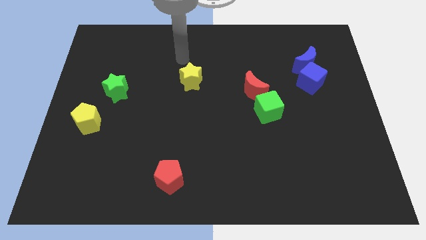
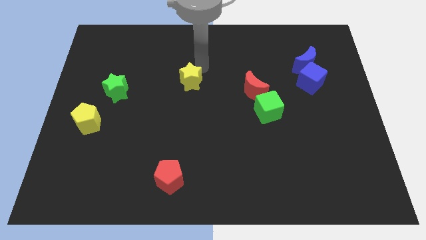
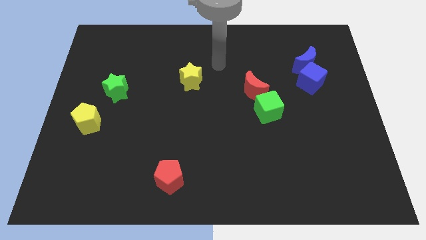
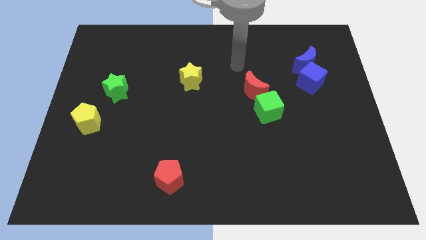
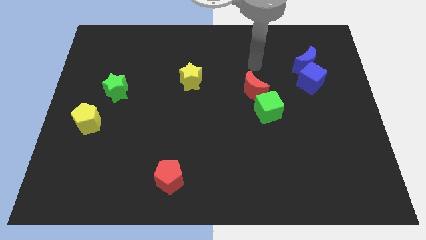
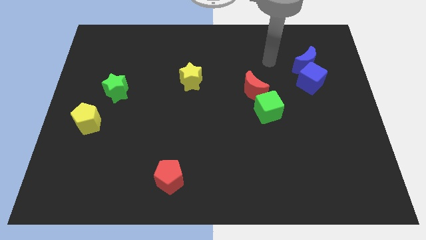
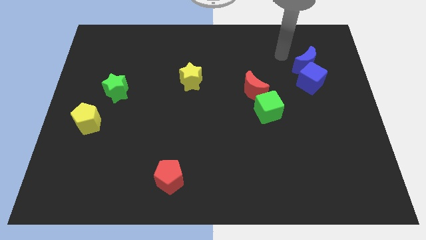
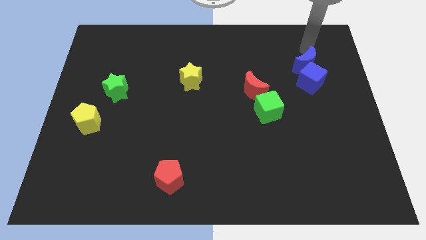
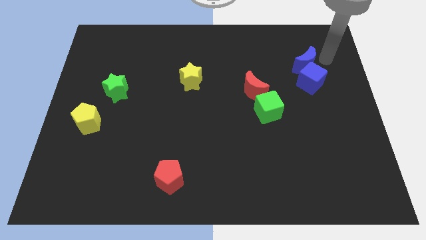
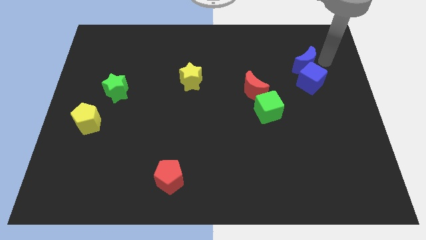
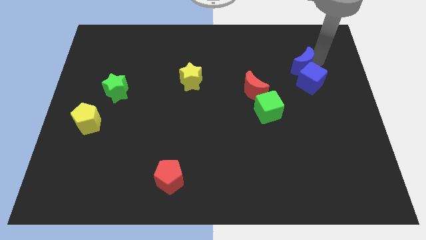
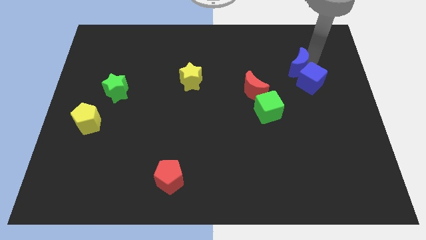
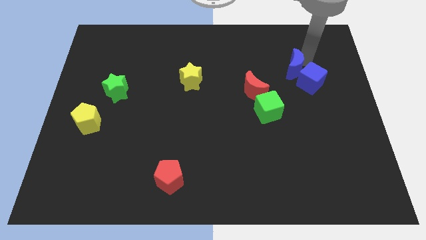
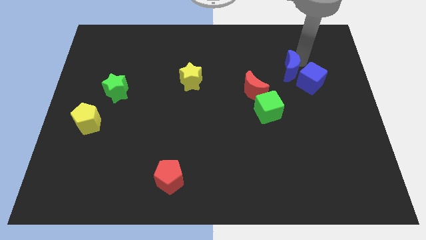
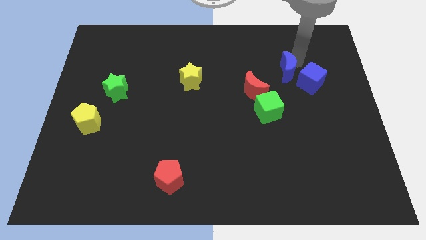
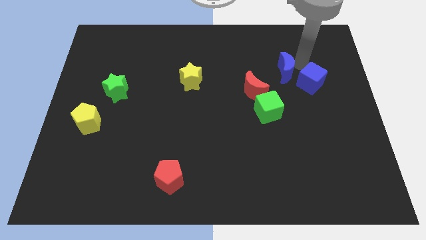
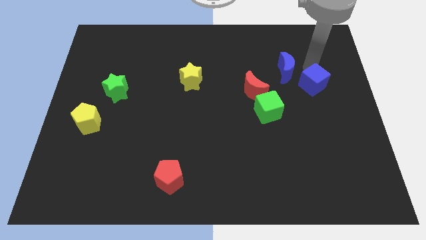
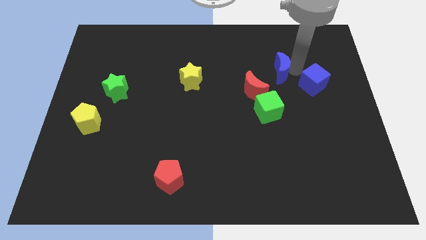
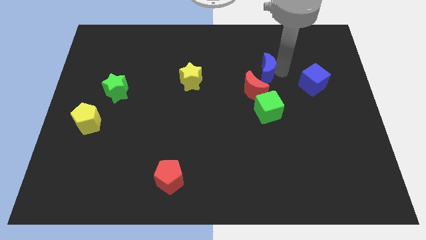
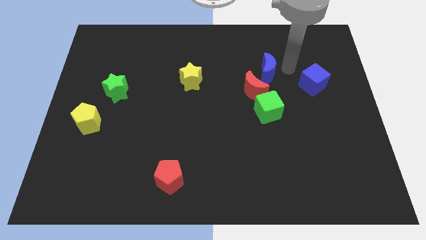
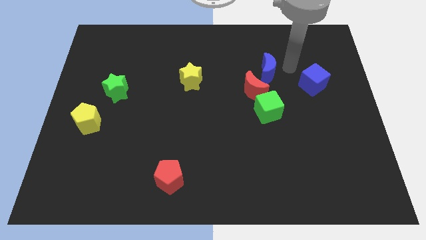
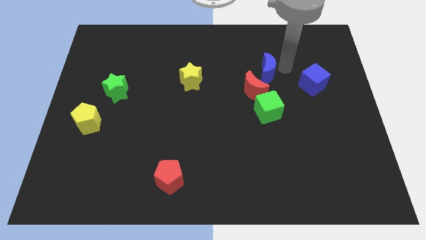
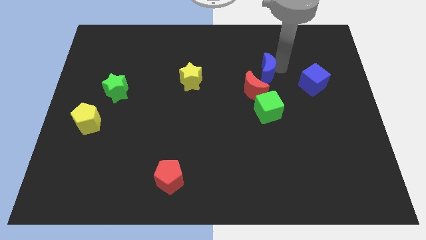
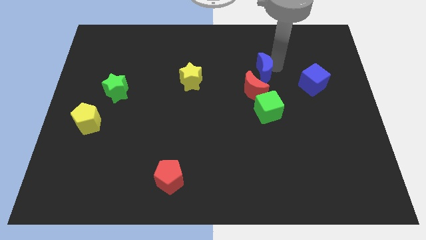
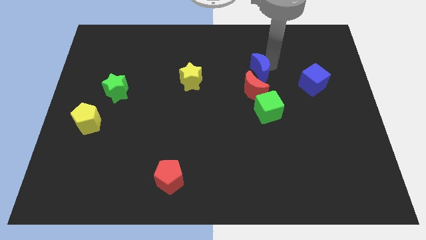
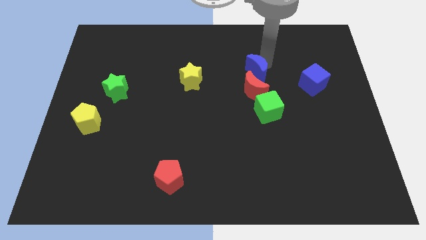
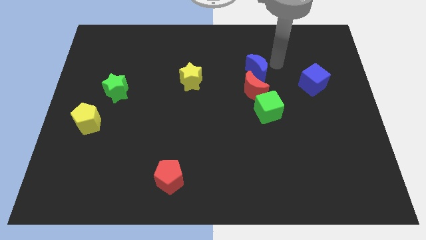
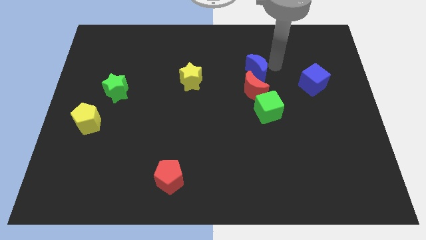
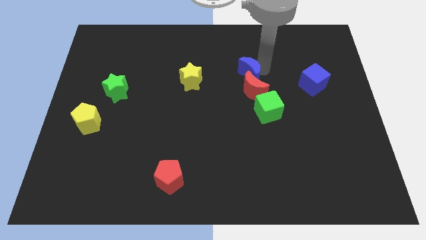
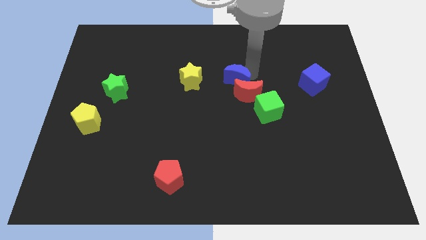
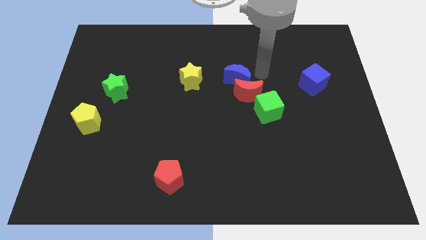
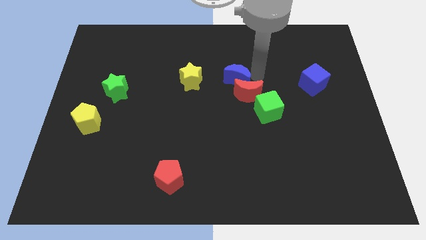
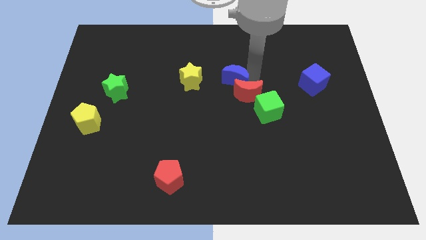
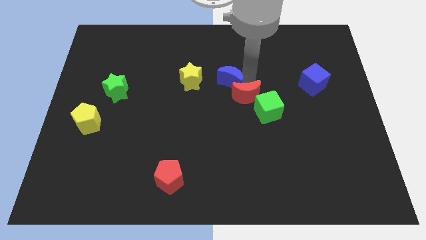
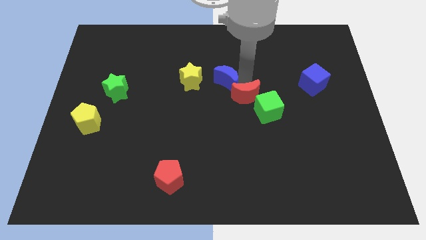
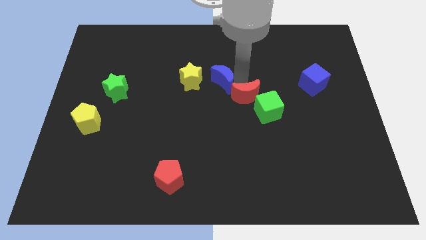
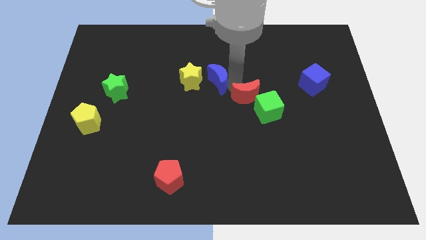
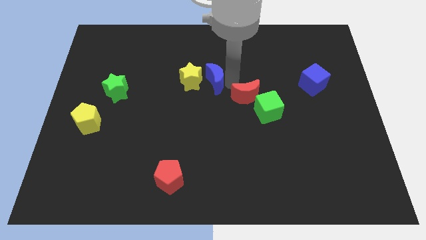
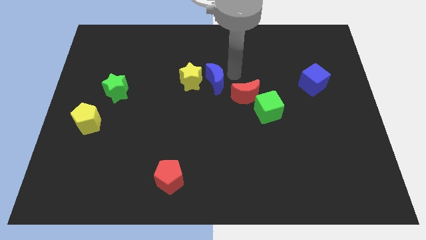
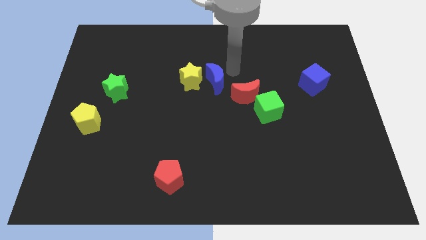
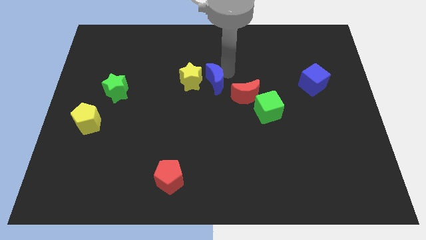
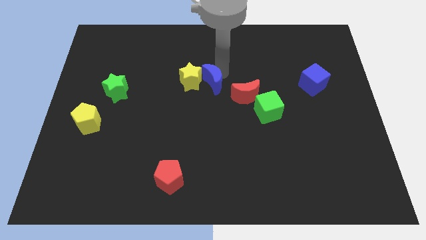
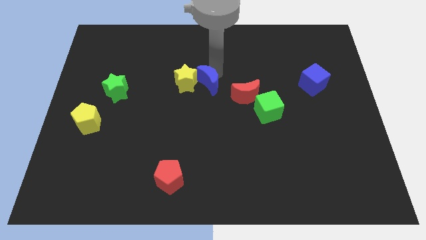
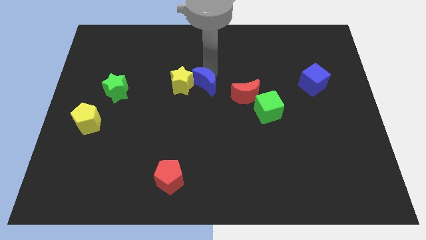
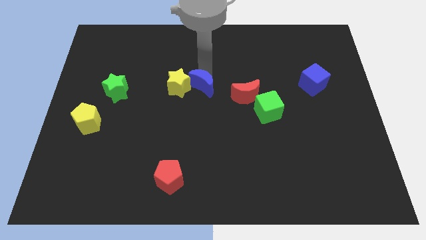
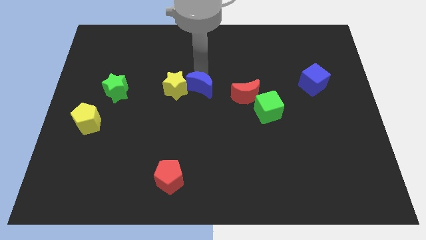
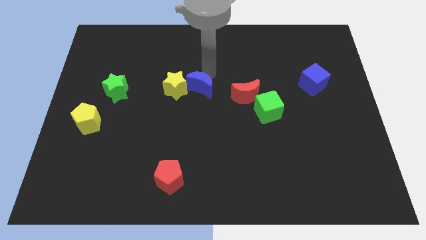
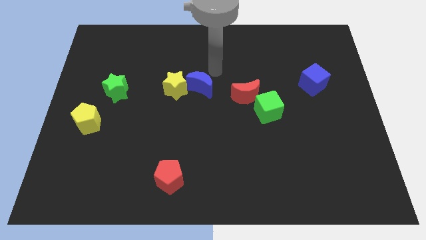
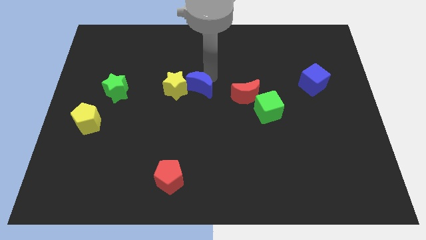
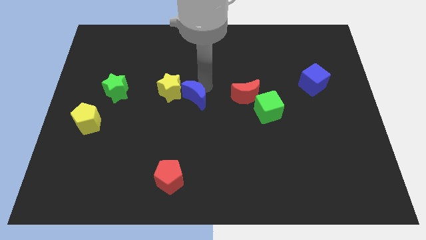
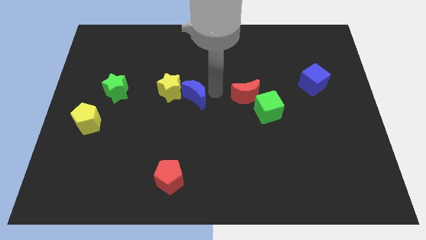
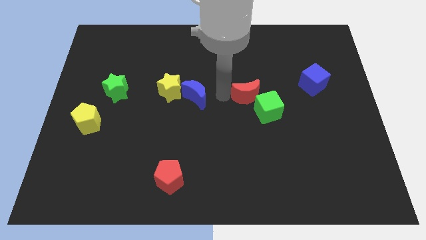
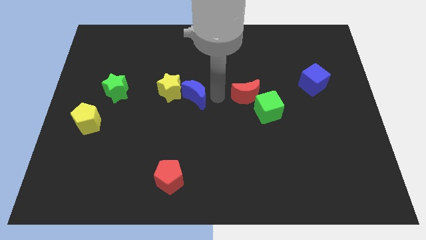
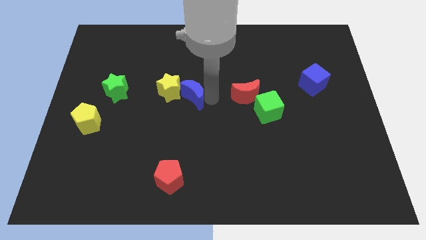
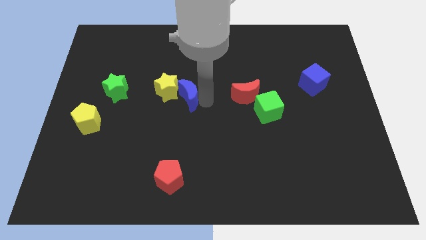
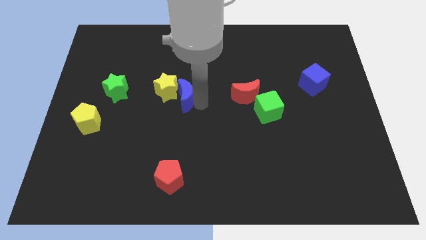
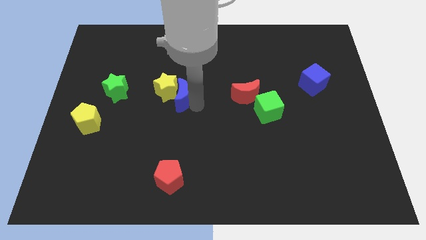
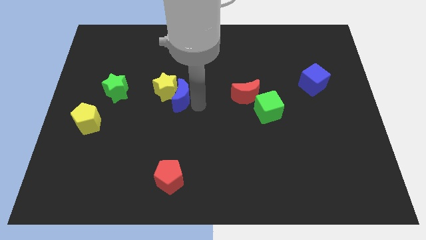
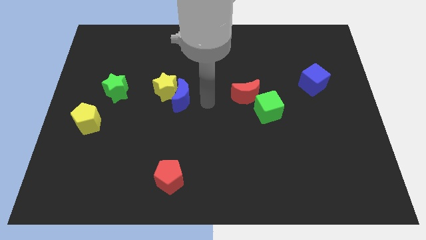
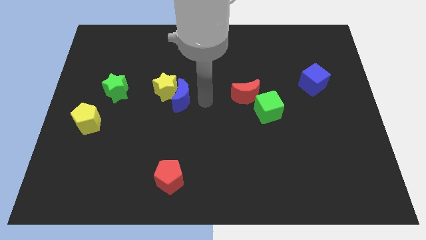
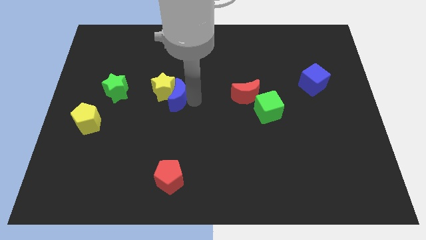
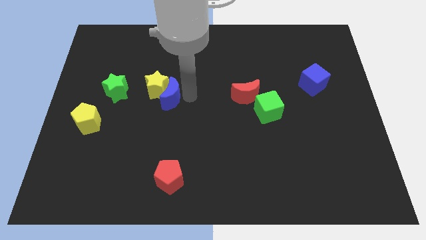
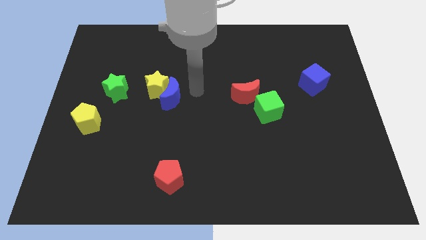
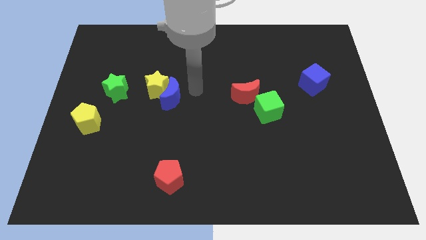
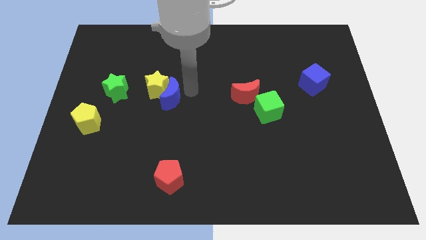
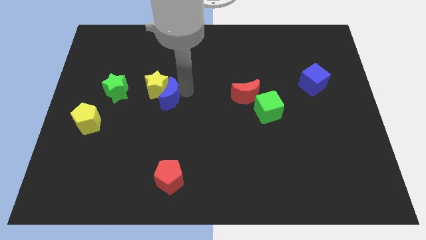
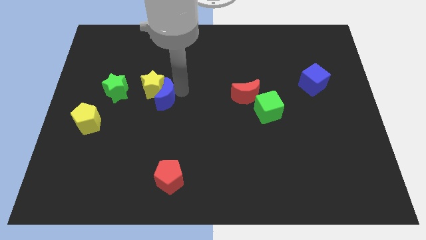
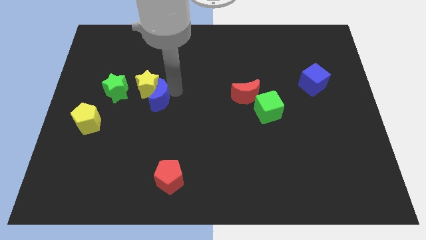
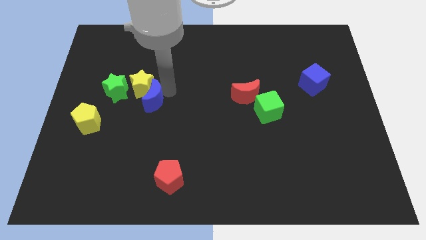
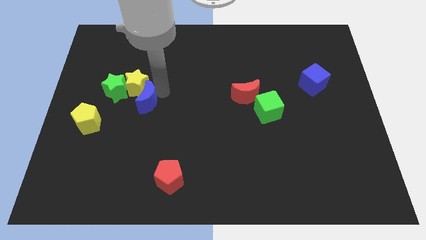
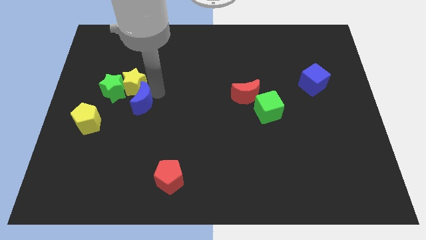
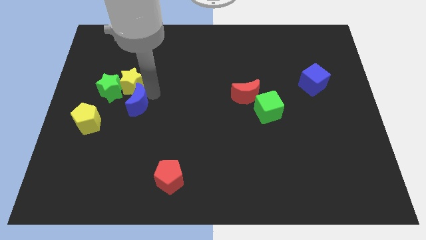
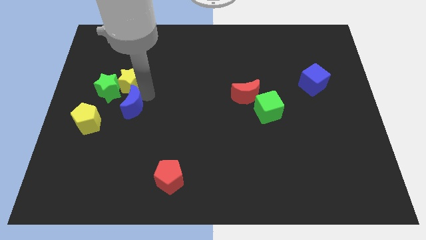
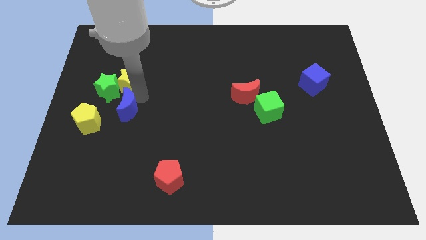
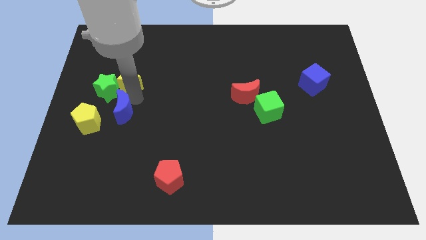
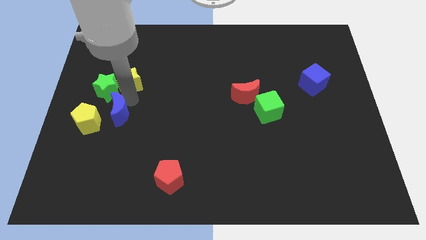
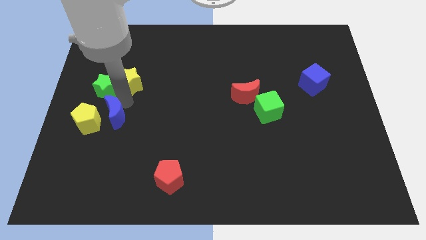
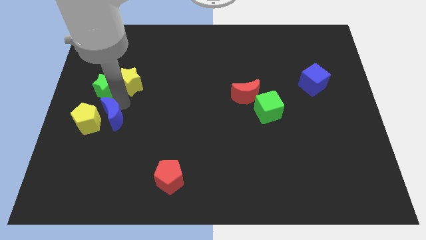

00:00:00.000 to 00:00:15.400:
slide the blue moon towards the yellow pentagon
